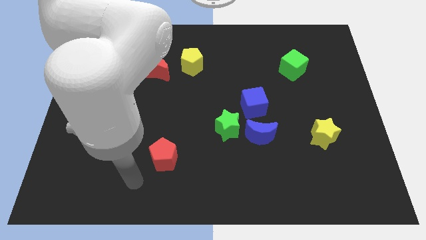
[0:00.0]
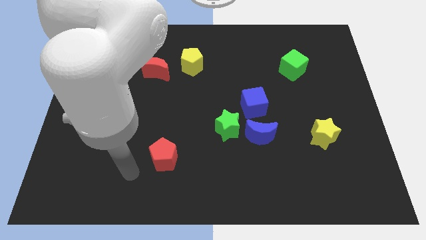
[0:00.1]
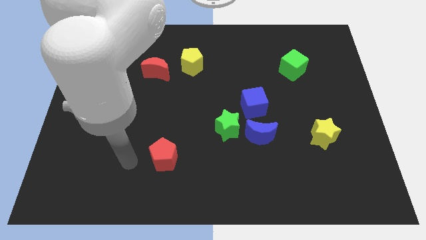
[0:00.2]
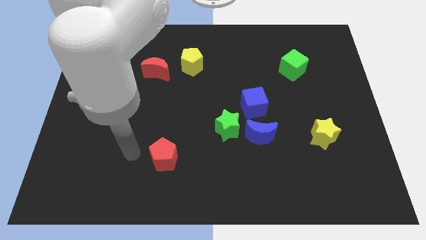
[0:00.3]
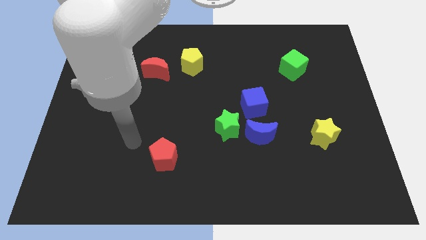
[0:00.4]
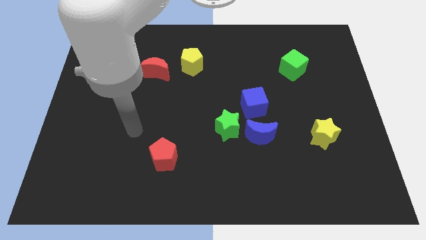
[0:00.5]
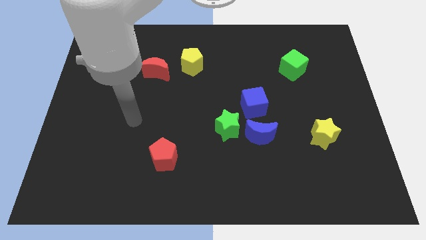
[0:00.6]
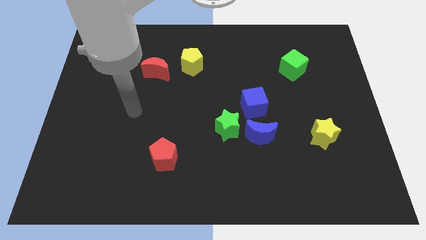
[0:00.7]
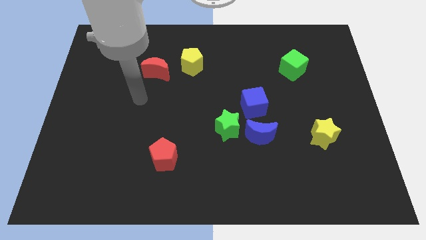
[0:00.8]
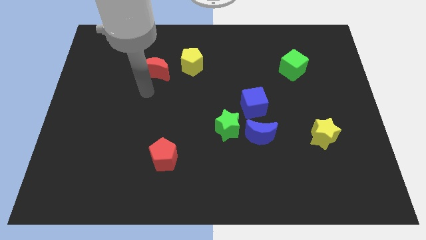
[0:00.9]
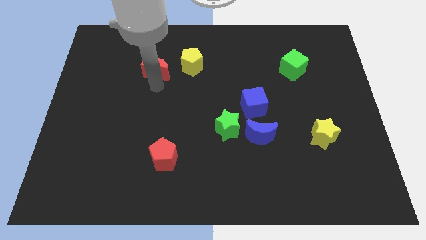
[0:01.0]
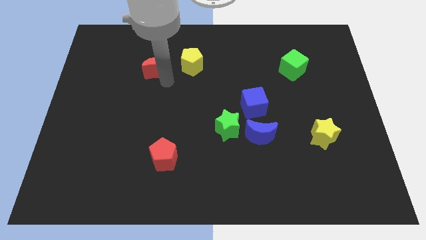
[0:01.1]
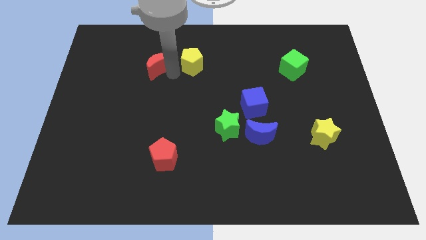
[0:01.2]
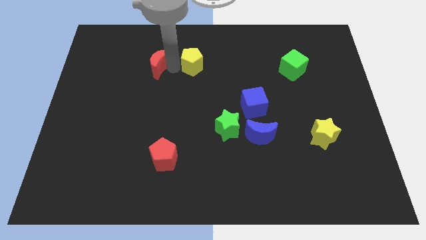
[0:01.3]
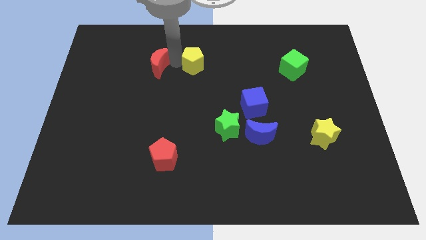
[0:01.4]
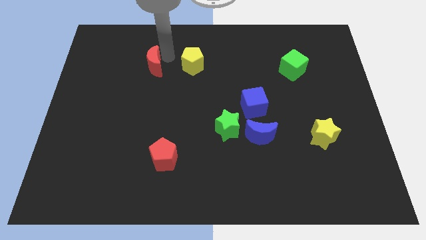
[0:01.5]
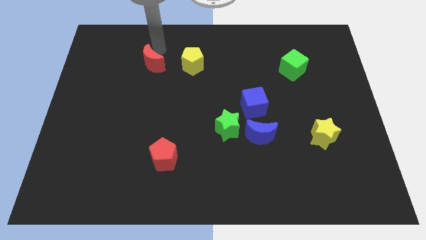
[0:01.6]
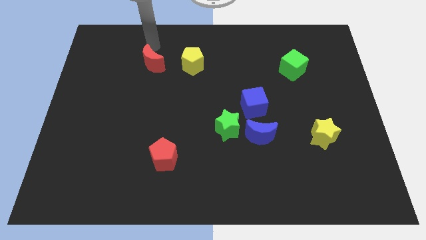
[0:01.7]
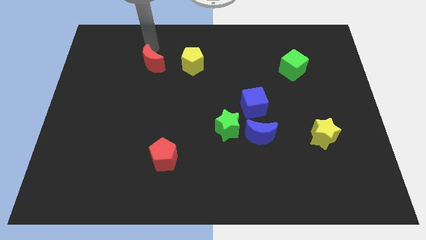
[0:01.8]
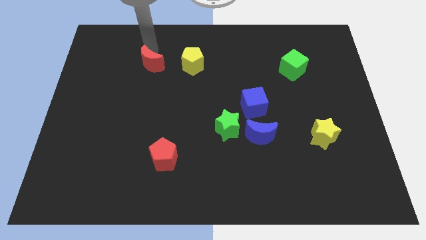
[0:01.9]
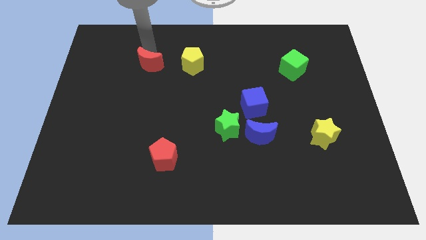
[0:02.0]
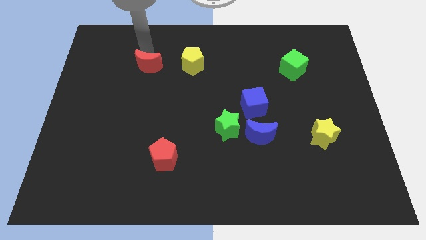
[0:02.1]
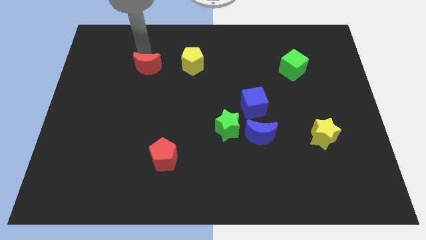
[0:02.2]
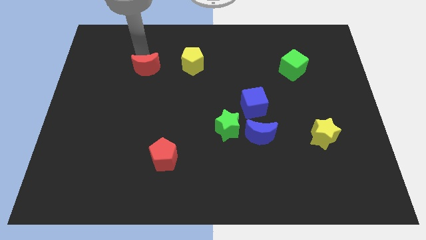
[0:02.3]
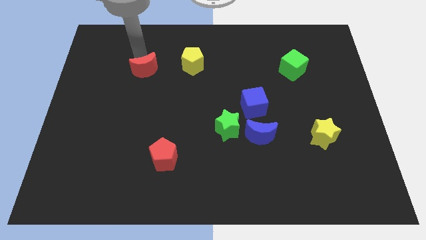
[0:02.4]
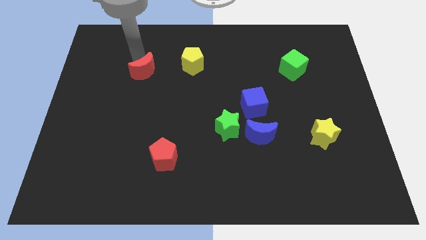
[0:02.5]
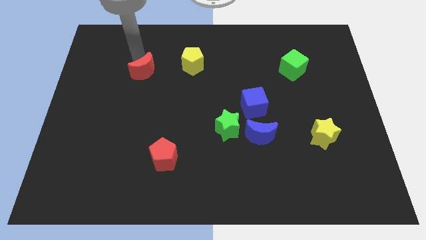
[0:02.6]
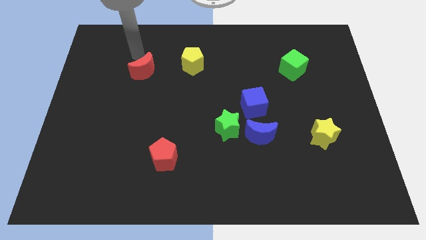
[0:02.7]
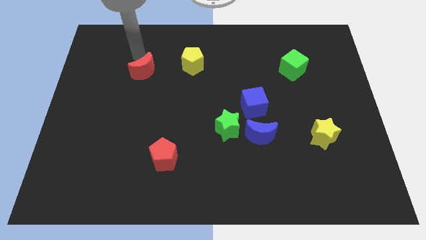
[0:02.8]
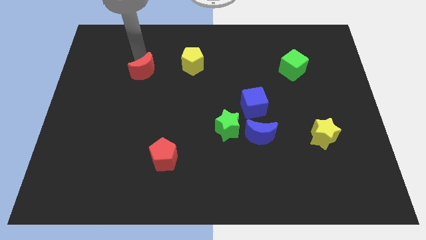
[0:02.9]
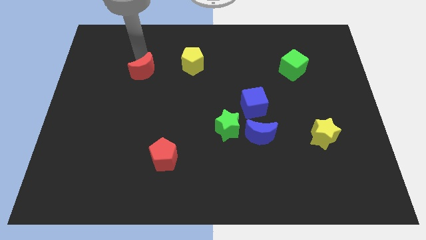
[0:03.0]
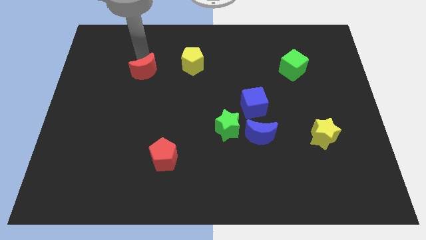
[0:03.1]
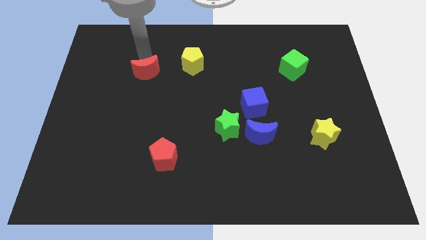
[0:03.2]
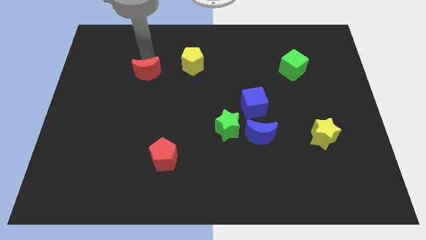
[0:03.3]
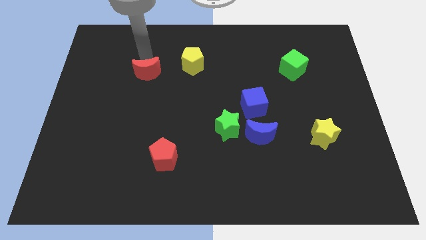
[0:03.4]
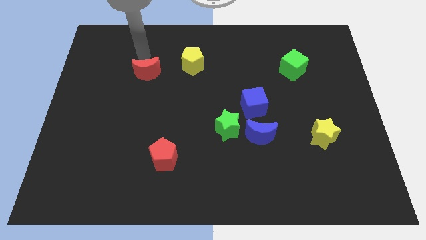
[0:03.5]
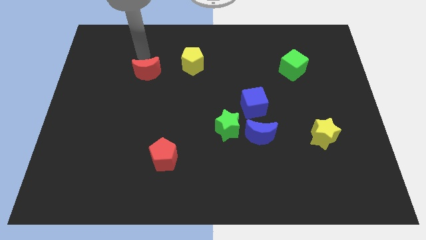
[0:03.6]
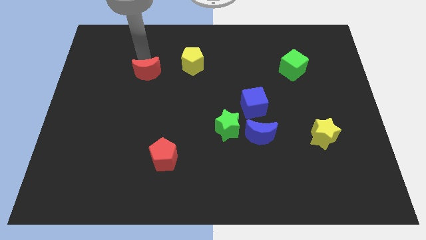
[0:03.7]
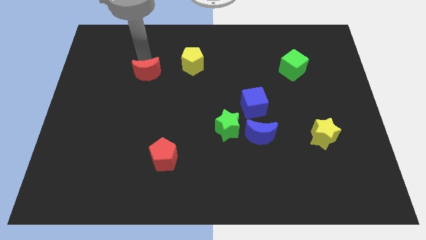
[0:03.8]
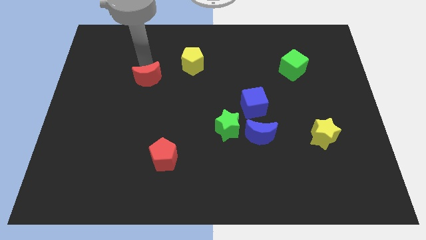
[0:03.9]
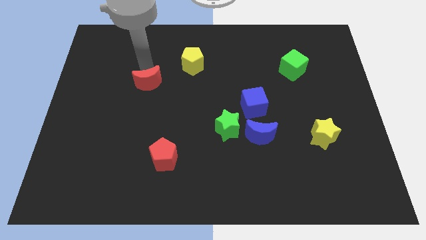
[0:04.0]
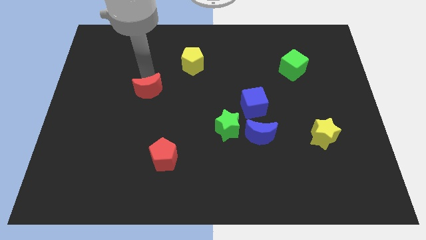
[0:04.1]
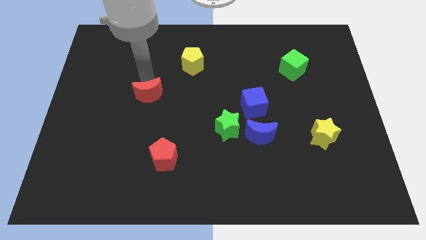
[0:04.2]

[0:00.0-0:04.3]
slide the red moon a little bit down

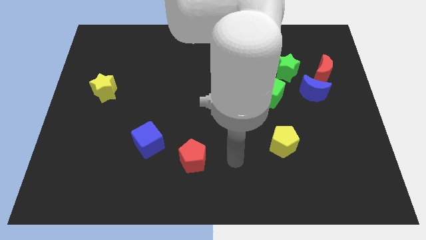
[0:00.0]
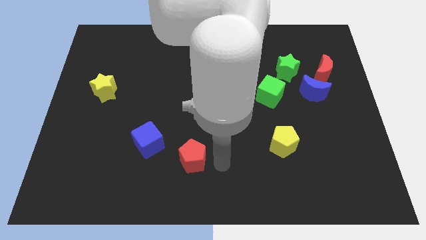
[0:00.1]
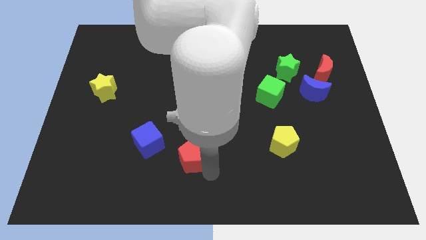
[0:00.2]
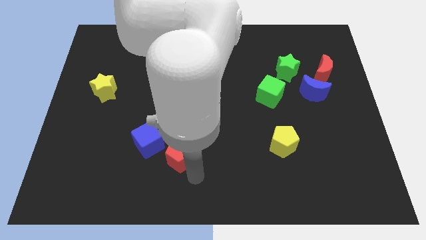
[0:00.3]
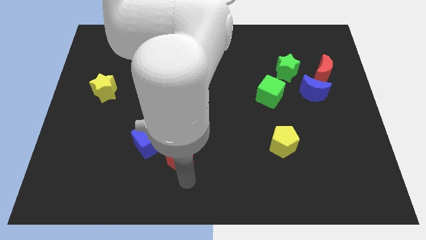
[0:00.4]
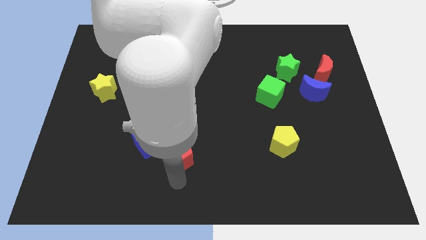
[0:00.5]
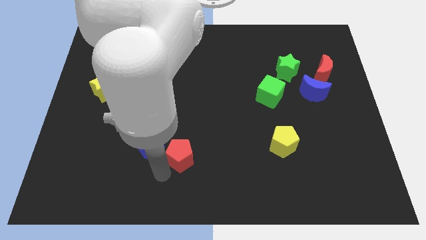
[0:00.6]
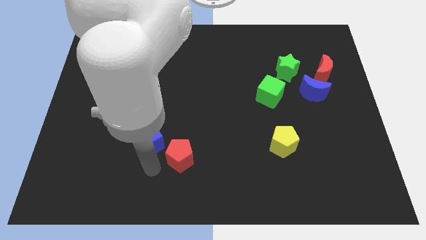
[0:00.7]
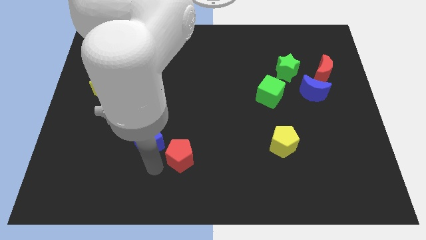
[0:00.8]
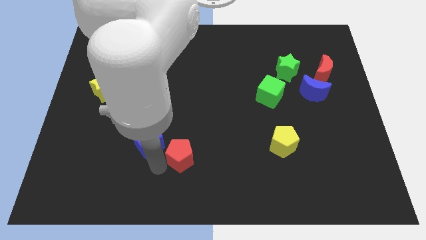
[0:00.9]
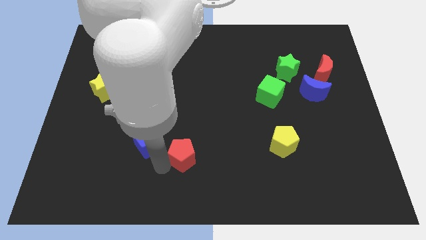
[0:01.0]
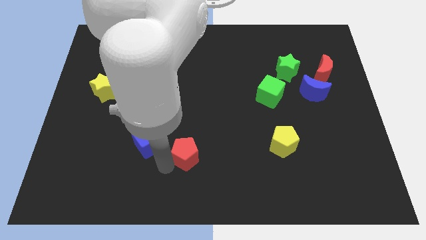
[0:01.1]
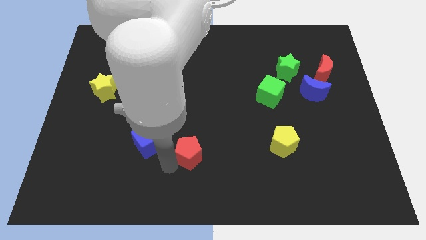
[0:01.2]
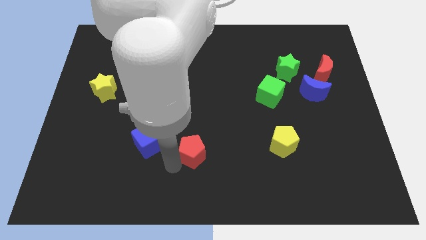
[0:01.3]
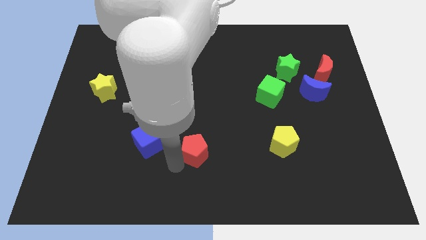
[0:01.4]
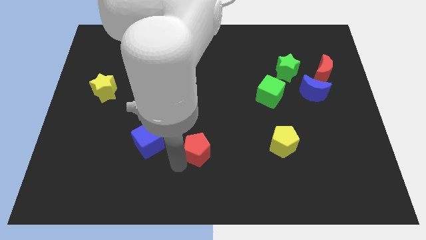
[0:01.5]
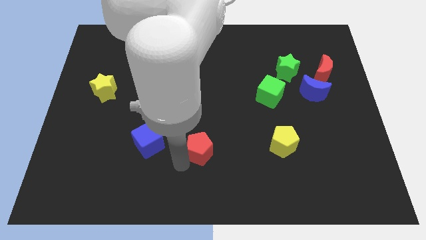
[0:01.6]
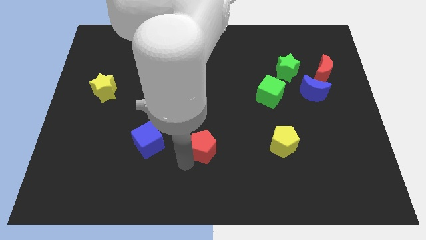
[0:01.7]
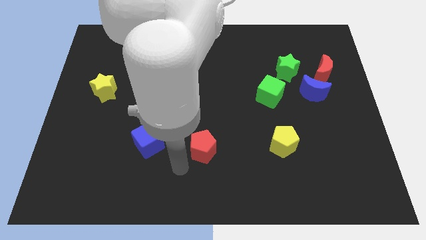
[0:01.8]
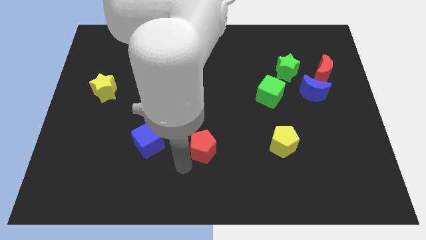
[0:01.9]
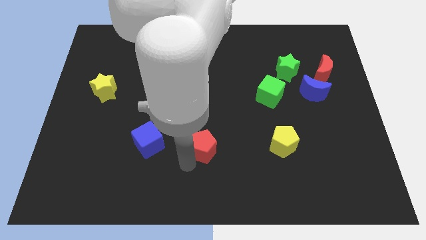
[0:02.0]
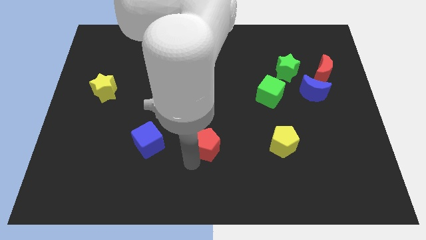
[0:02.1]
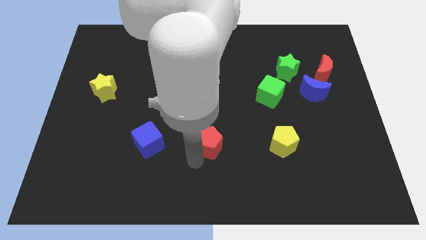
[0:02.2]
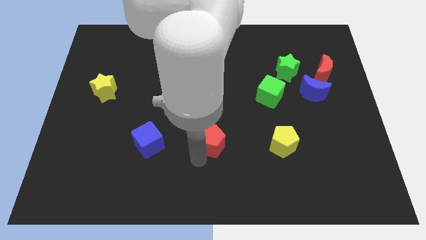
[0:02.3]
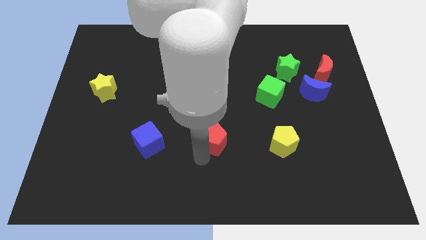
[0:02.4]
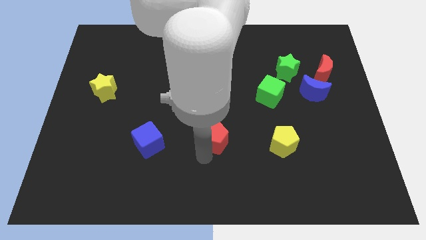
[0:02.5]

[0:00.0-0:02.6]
slightly push the red pentagon up and right diagonally

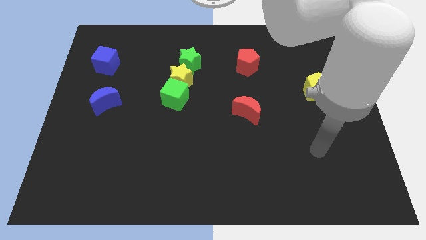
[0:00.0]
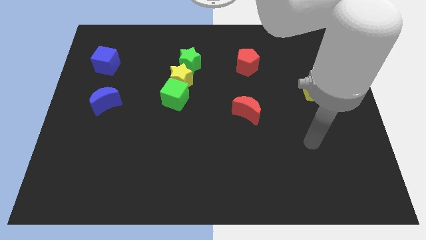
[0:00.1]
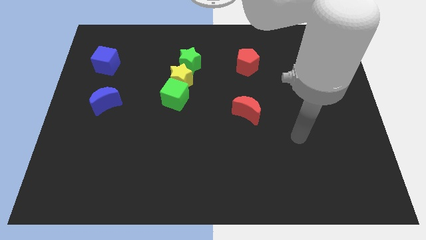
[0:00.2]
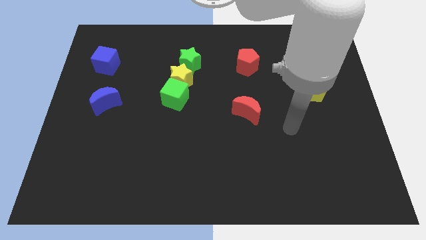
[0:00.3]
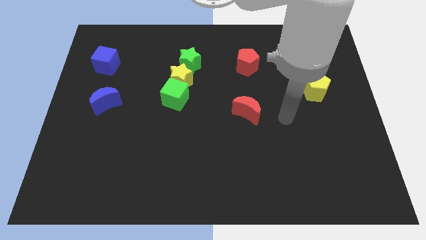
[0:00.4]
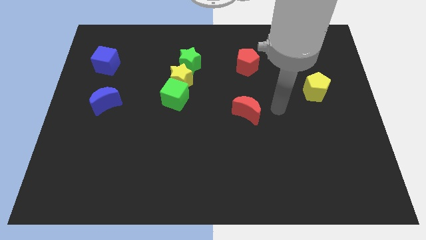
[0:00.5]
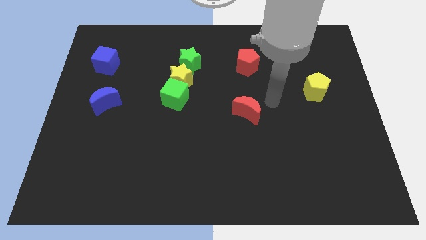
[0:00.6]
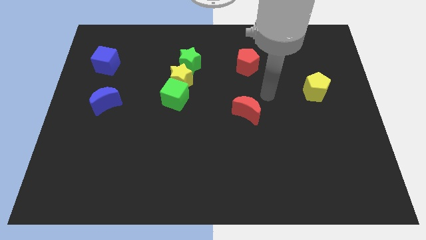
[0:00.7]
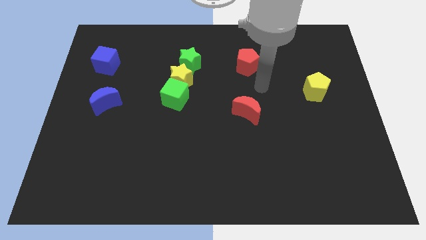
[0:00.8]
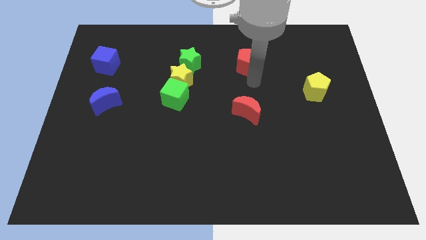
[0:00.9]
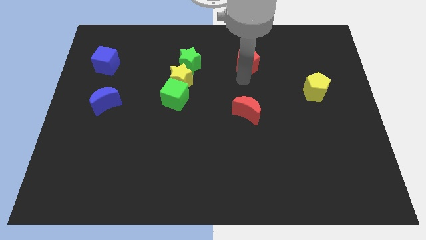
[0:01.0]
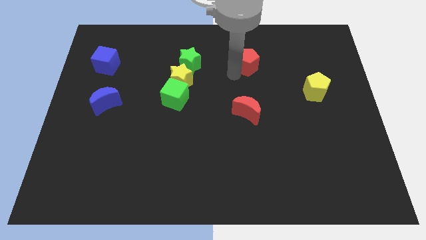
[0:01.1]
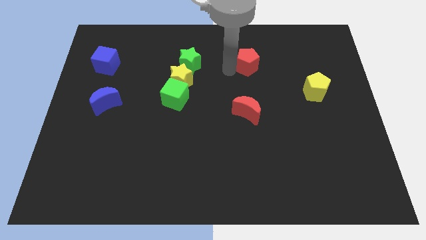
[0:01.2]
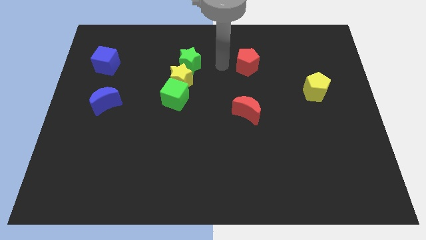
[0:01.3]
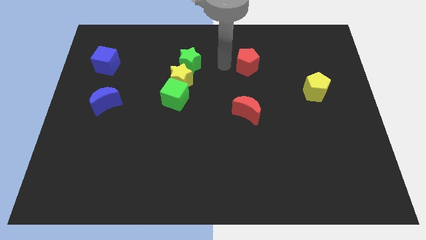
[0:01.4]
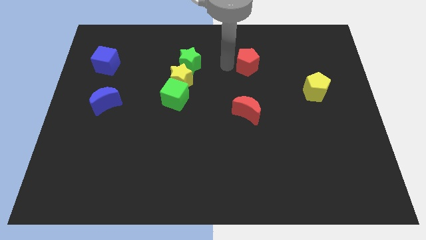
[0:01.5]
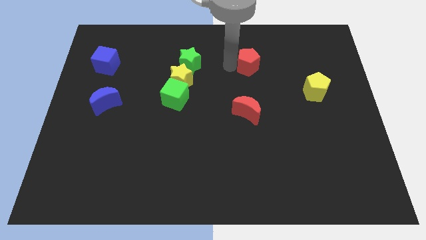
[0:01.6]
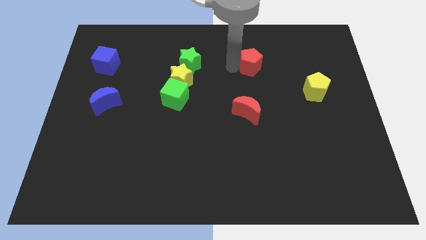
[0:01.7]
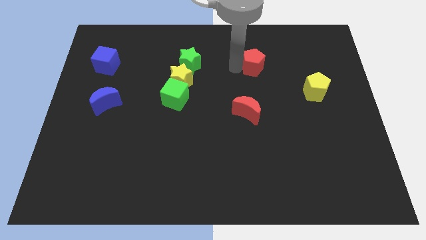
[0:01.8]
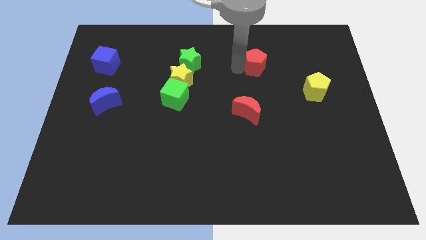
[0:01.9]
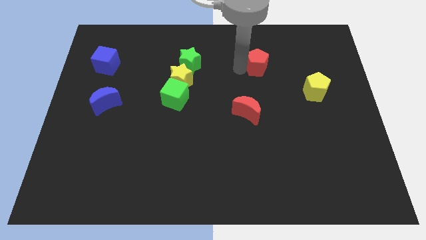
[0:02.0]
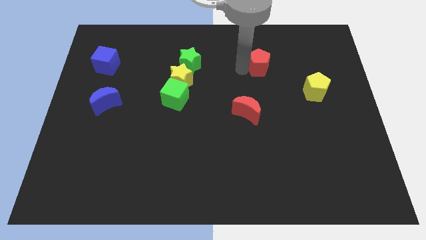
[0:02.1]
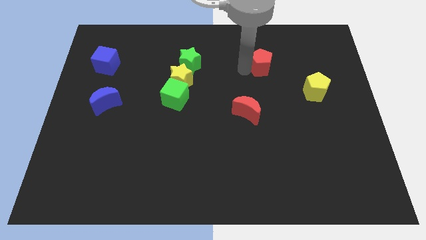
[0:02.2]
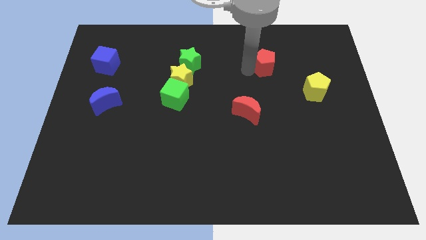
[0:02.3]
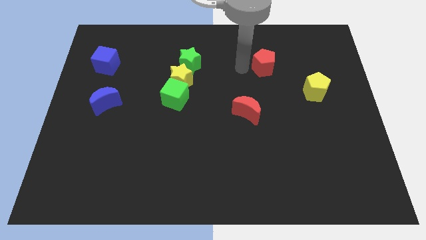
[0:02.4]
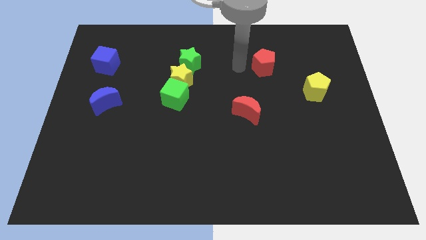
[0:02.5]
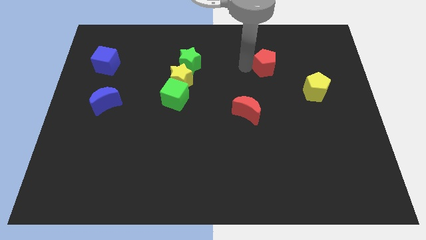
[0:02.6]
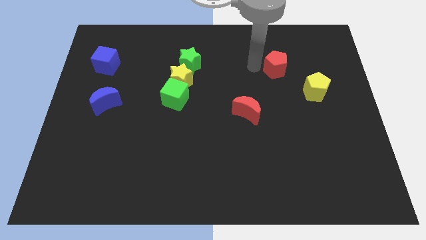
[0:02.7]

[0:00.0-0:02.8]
slide the red pentagon a little bit to the right
